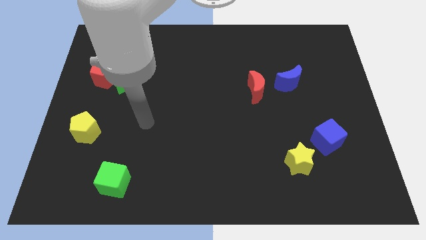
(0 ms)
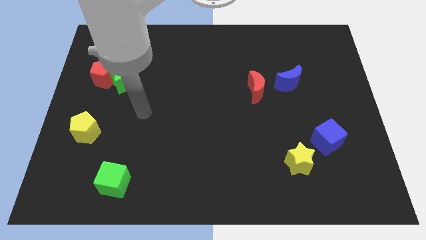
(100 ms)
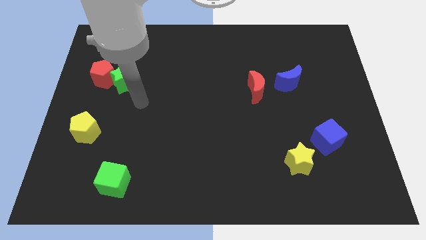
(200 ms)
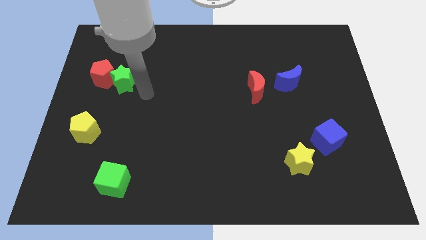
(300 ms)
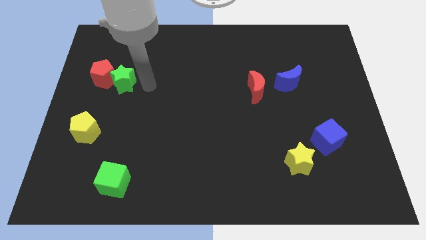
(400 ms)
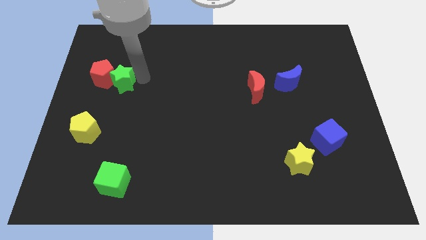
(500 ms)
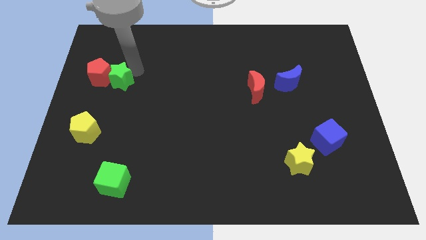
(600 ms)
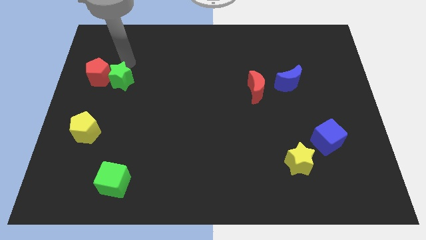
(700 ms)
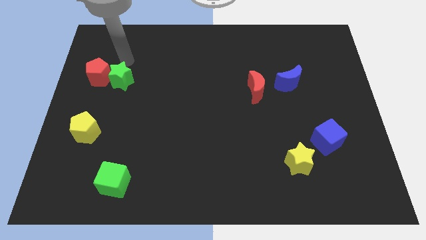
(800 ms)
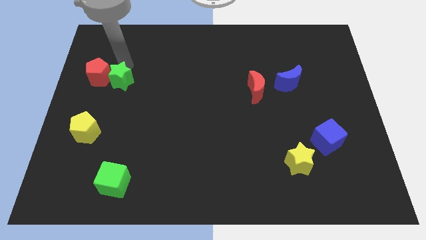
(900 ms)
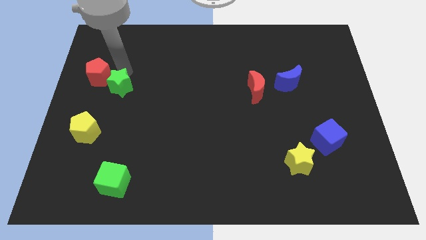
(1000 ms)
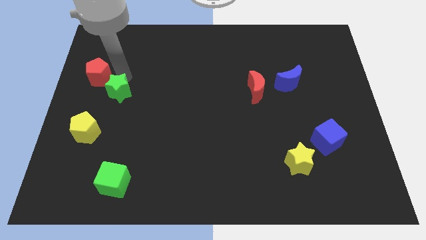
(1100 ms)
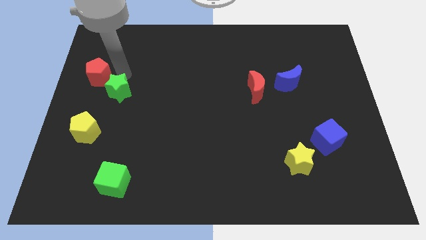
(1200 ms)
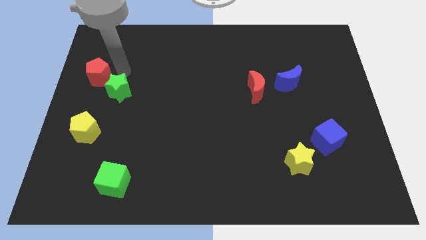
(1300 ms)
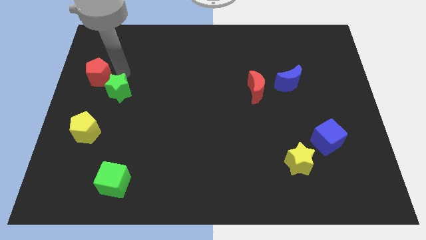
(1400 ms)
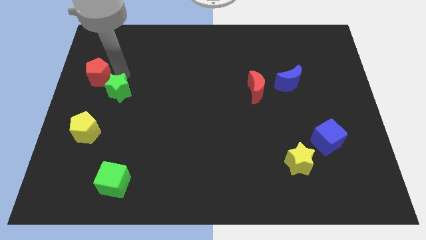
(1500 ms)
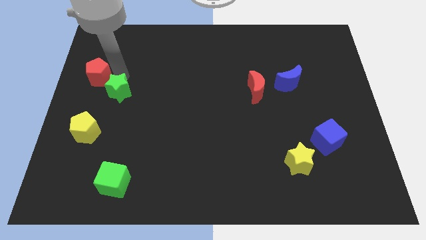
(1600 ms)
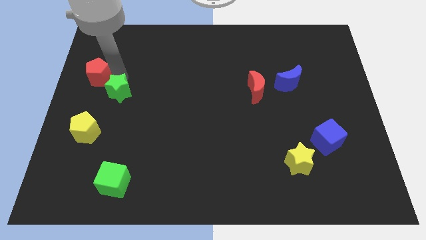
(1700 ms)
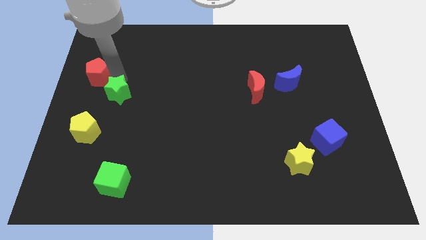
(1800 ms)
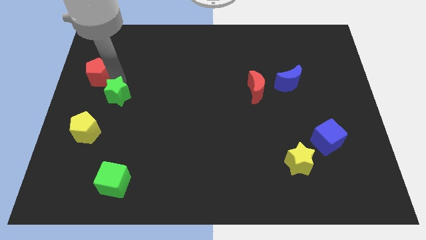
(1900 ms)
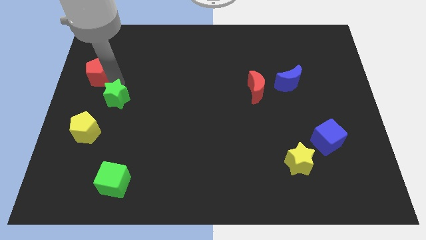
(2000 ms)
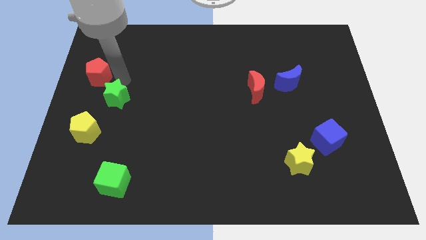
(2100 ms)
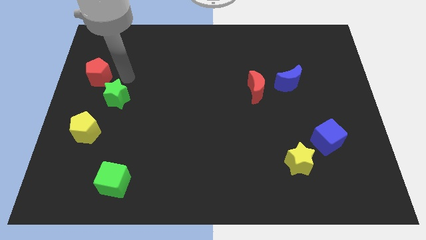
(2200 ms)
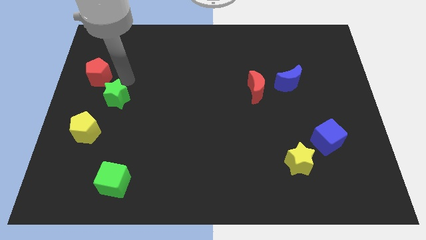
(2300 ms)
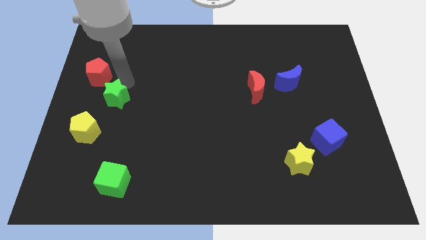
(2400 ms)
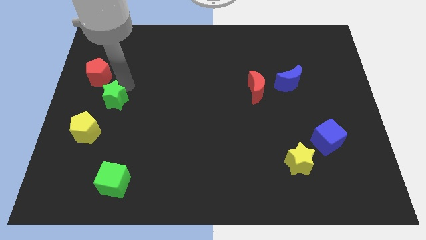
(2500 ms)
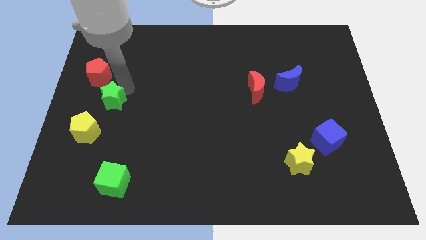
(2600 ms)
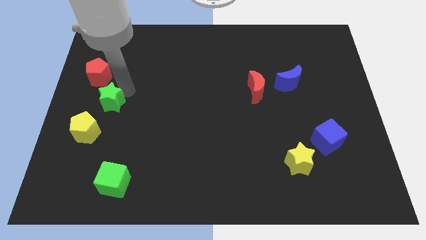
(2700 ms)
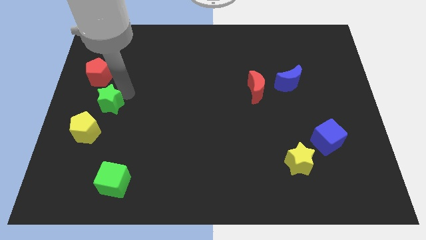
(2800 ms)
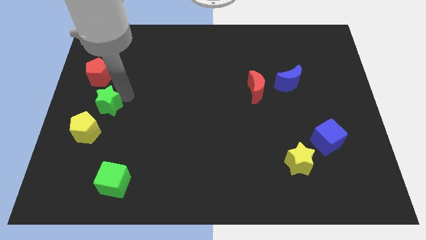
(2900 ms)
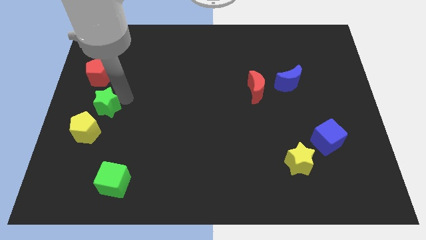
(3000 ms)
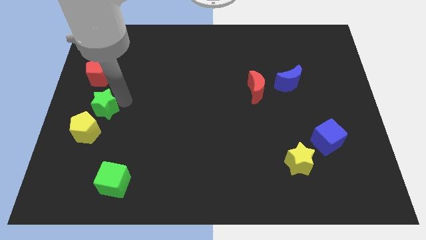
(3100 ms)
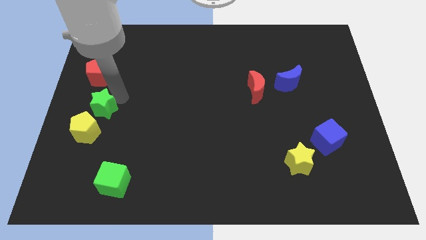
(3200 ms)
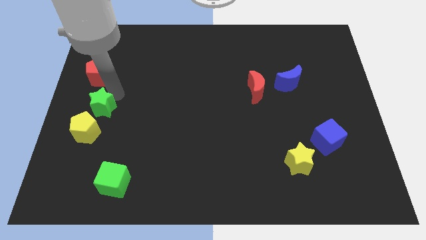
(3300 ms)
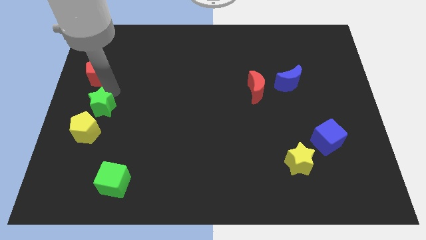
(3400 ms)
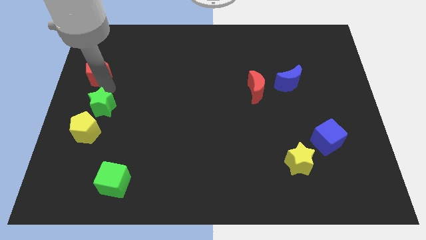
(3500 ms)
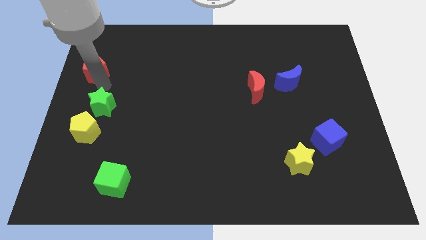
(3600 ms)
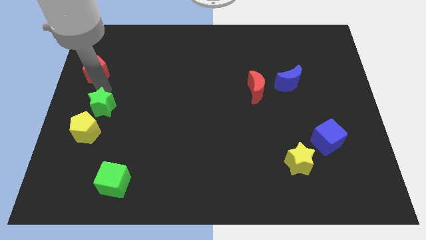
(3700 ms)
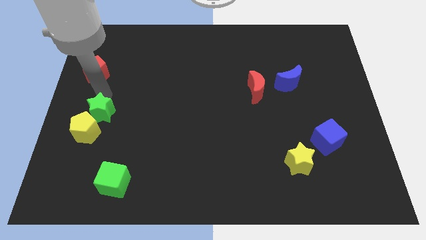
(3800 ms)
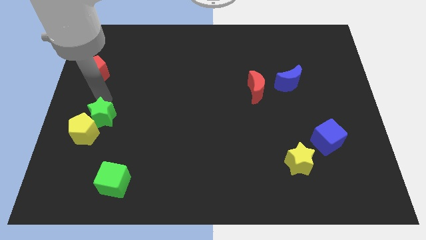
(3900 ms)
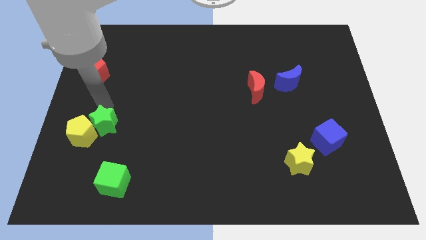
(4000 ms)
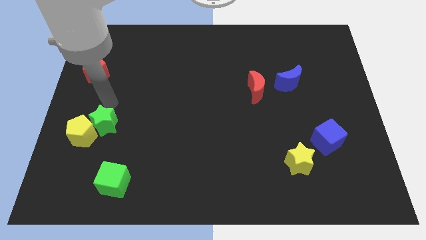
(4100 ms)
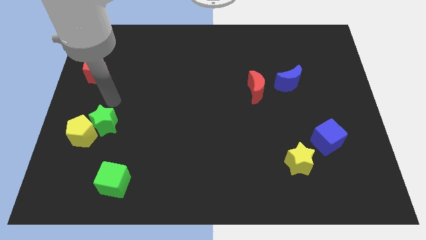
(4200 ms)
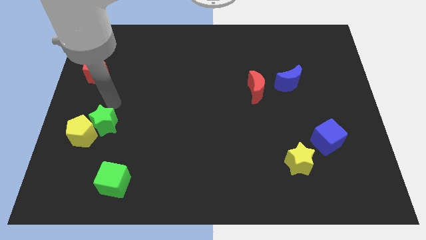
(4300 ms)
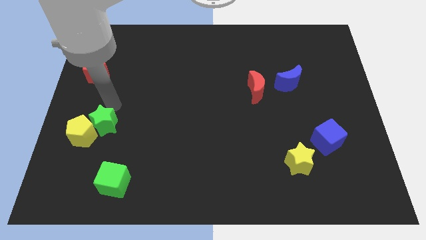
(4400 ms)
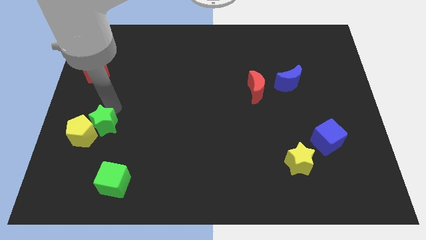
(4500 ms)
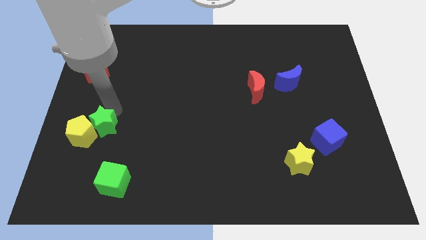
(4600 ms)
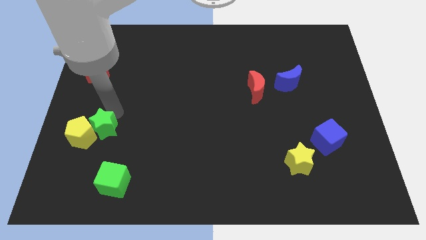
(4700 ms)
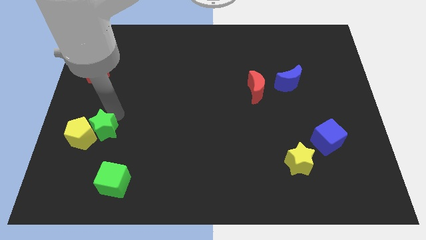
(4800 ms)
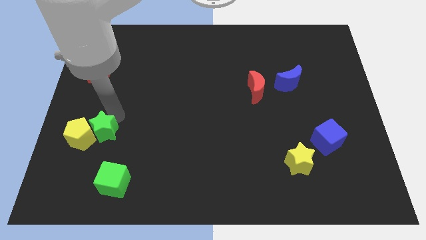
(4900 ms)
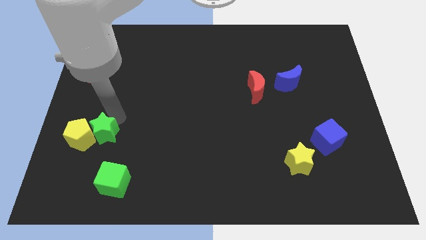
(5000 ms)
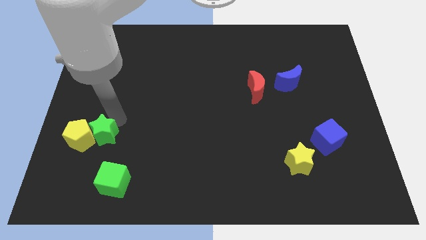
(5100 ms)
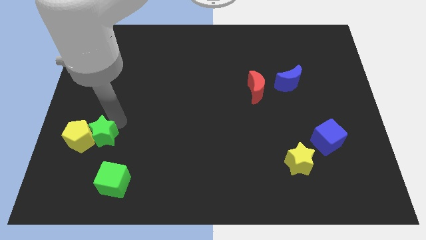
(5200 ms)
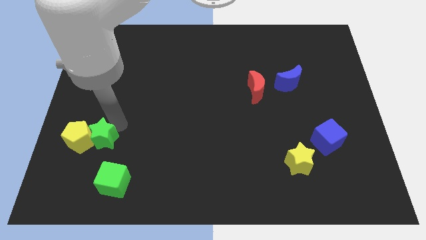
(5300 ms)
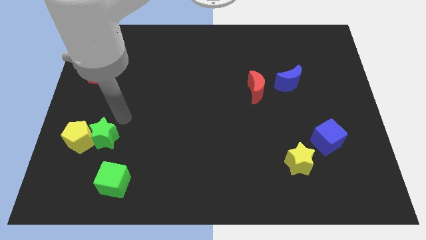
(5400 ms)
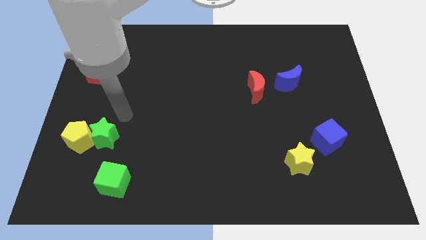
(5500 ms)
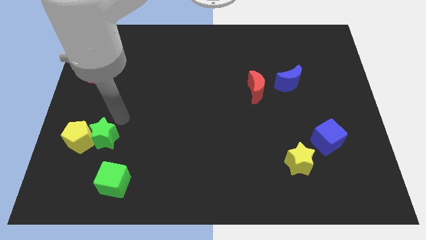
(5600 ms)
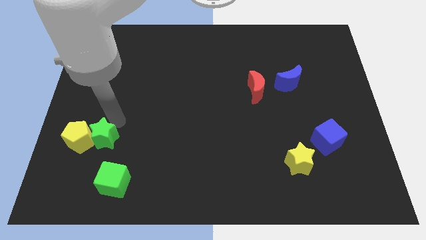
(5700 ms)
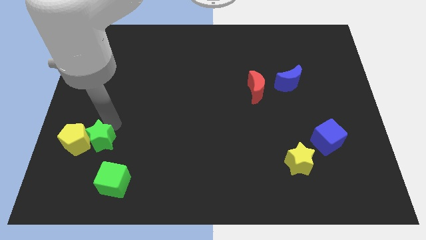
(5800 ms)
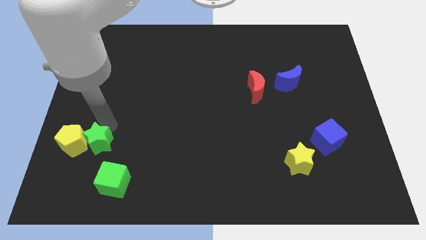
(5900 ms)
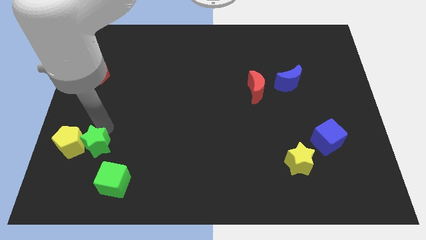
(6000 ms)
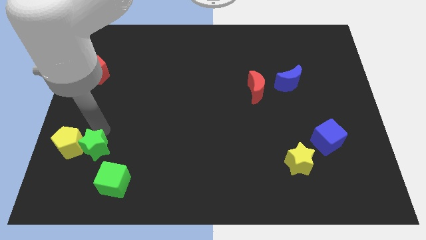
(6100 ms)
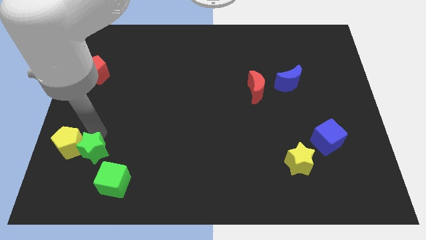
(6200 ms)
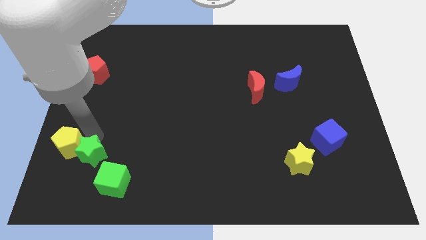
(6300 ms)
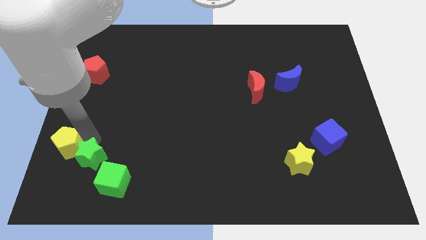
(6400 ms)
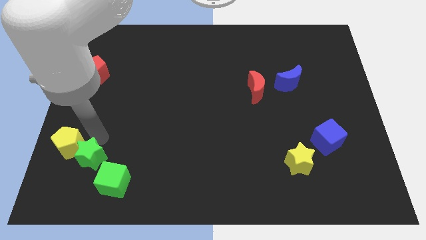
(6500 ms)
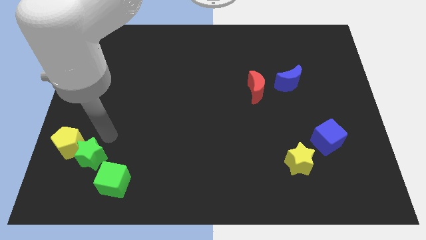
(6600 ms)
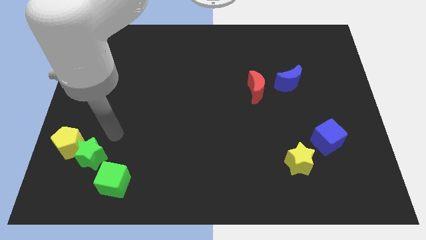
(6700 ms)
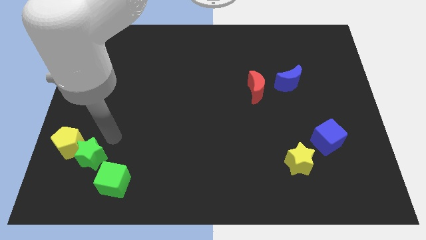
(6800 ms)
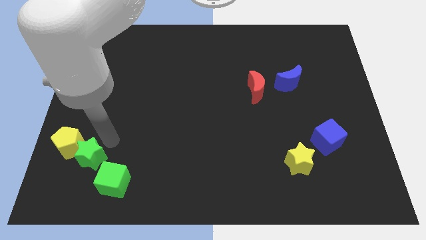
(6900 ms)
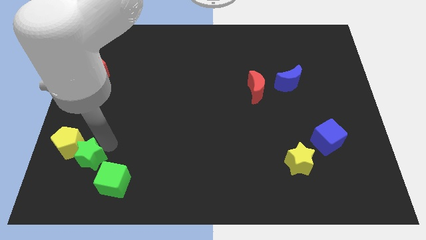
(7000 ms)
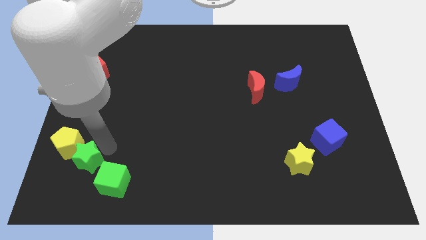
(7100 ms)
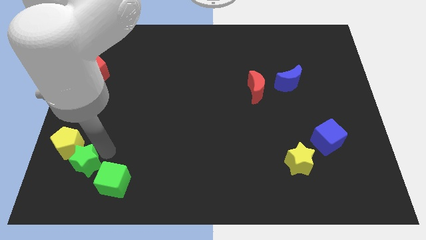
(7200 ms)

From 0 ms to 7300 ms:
push the green star below the yellow pentagon

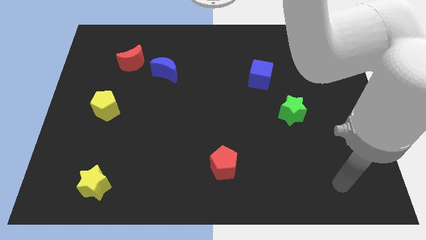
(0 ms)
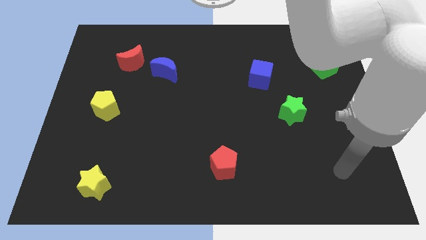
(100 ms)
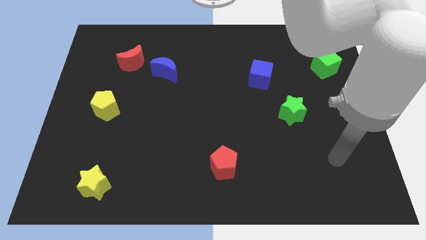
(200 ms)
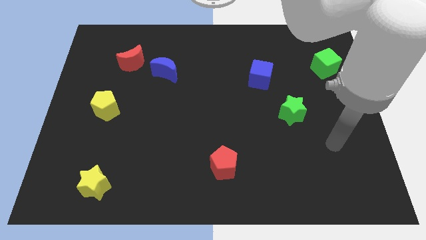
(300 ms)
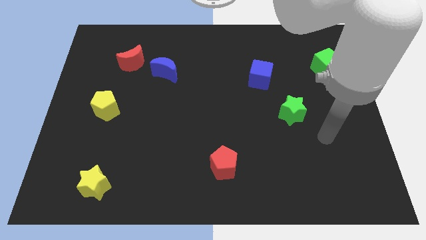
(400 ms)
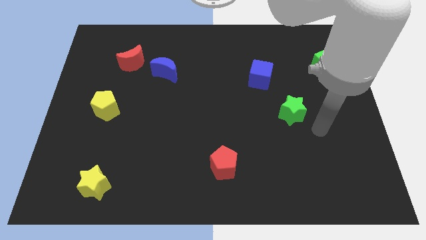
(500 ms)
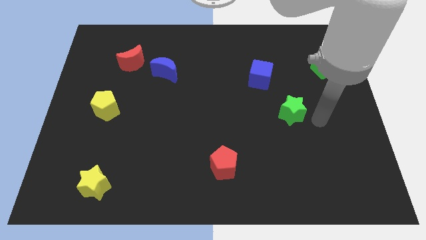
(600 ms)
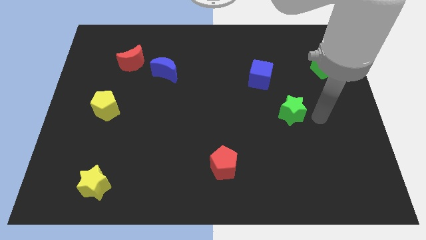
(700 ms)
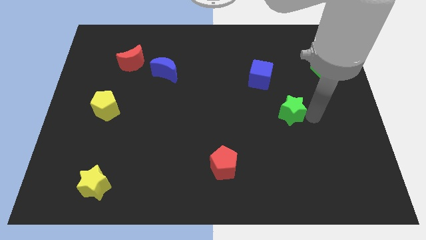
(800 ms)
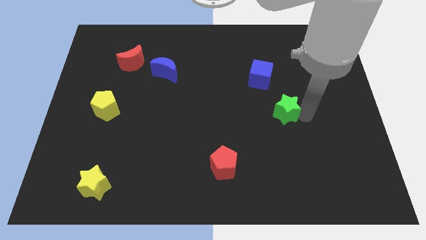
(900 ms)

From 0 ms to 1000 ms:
move the green star below the blue cube
